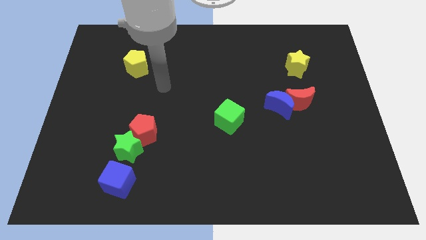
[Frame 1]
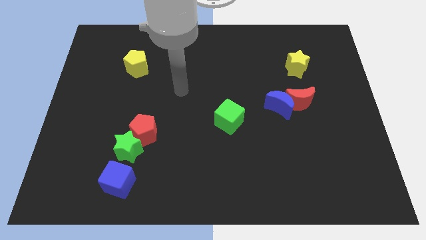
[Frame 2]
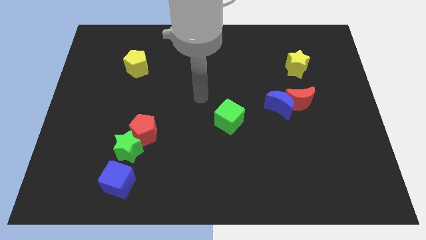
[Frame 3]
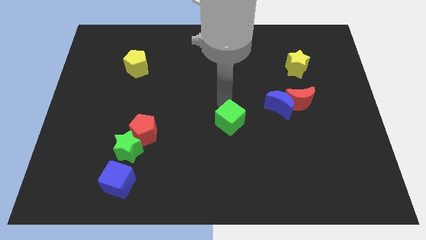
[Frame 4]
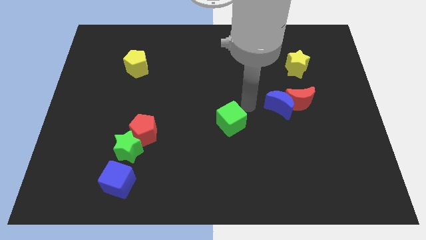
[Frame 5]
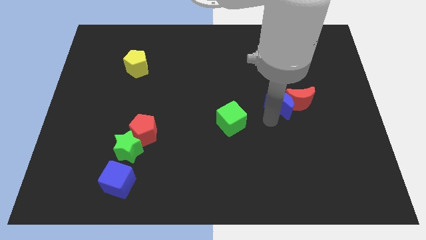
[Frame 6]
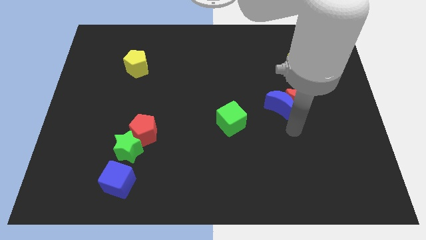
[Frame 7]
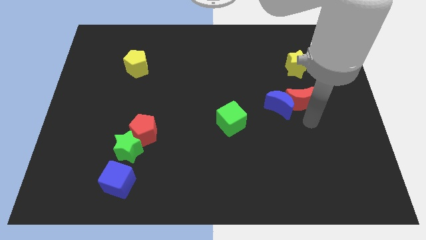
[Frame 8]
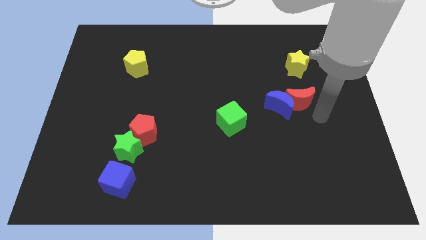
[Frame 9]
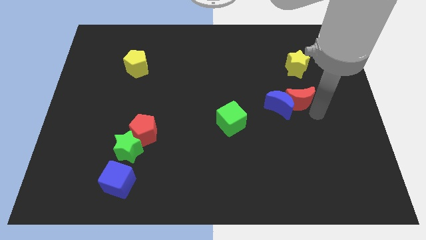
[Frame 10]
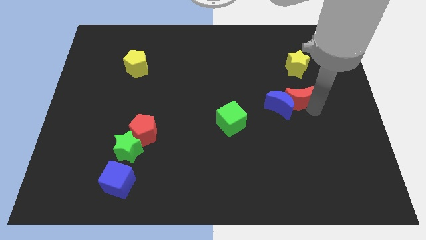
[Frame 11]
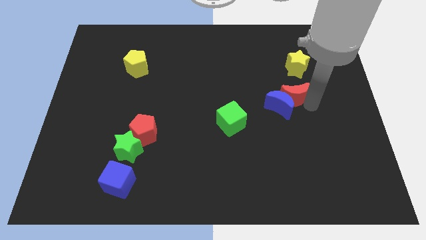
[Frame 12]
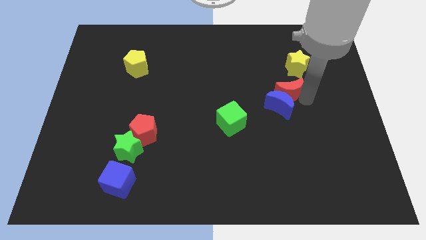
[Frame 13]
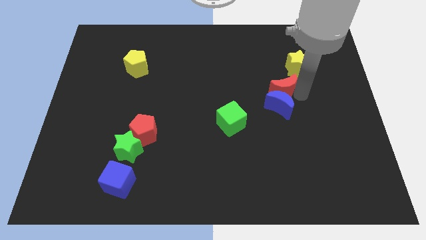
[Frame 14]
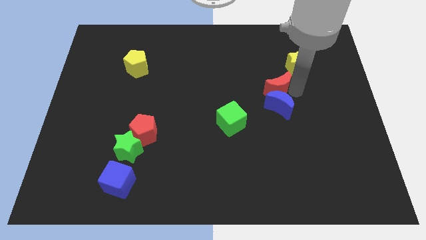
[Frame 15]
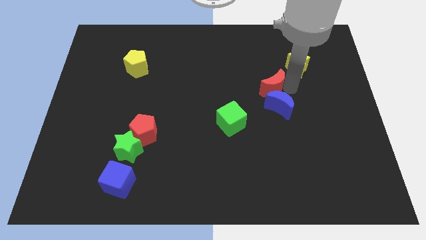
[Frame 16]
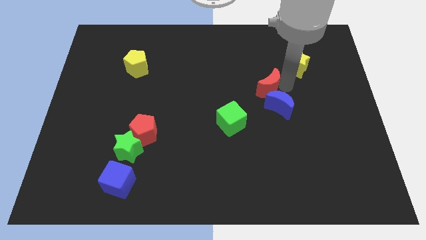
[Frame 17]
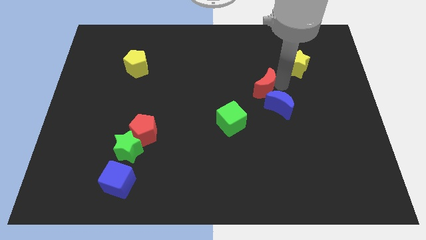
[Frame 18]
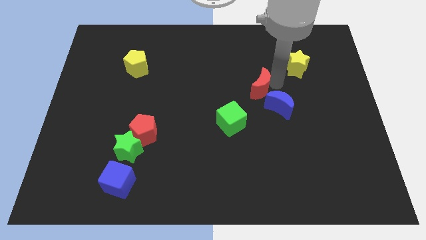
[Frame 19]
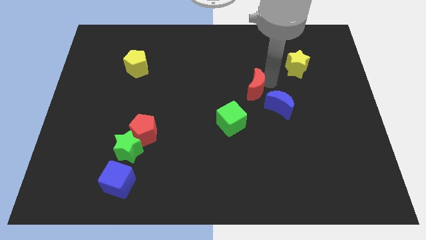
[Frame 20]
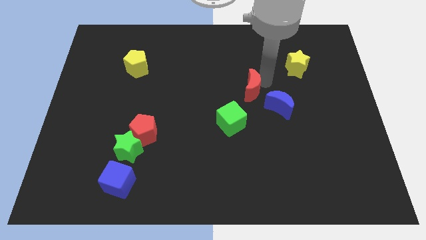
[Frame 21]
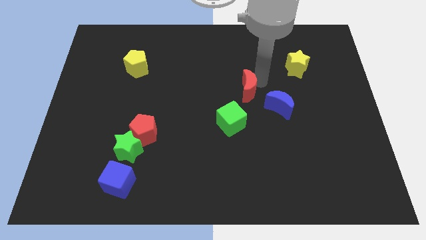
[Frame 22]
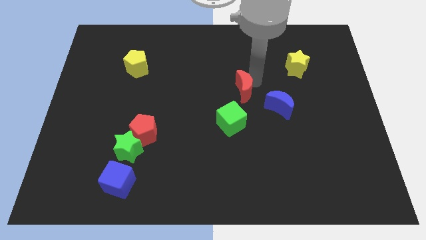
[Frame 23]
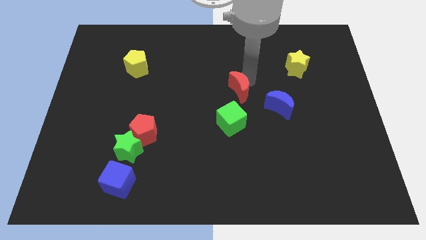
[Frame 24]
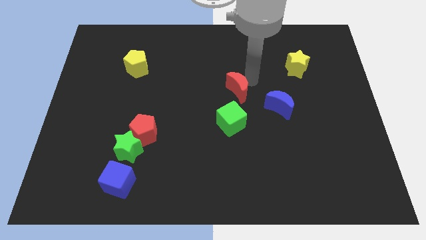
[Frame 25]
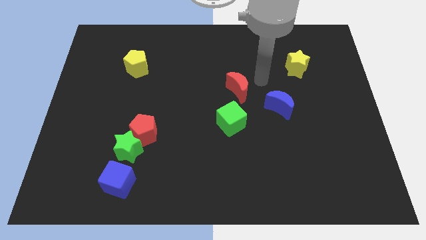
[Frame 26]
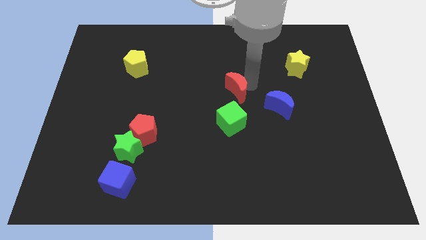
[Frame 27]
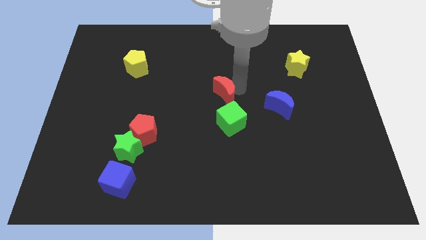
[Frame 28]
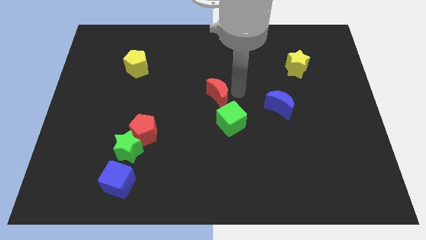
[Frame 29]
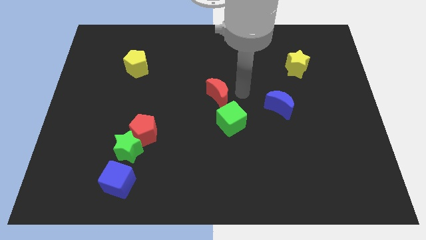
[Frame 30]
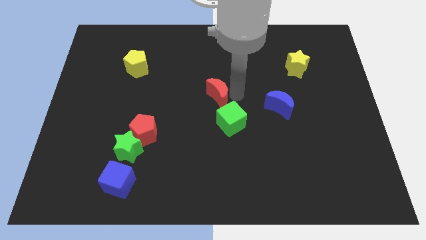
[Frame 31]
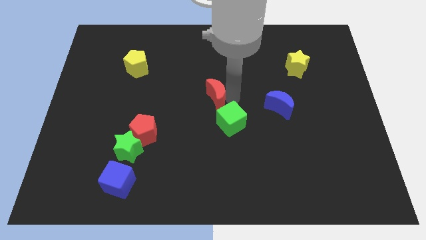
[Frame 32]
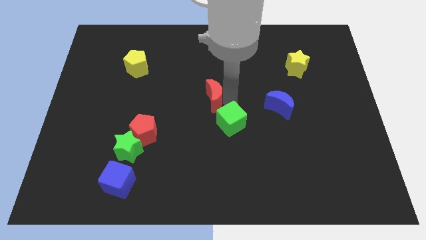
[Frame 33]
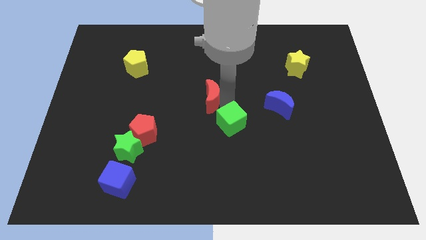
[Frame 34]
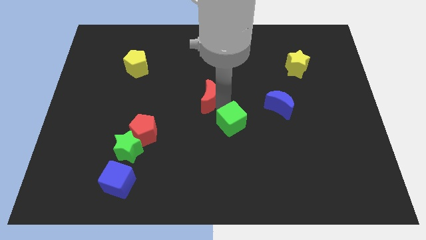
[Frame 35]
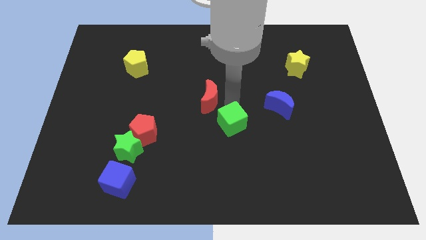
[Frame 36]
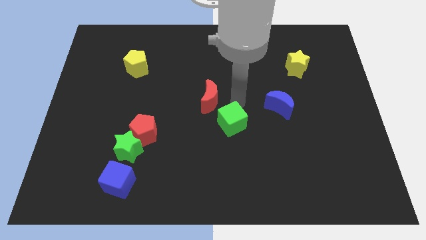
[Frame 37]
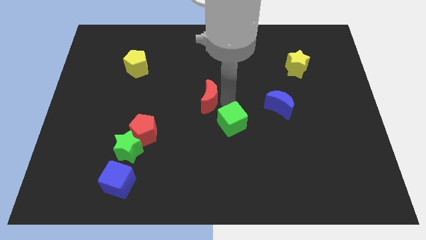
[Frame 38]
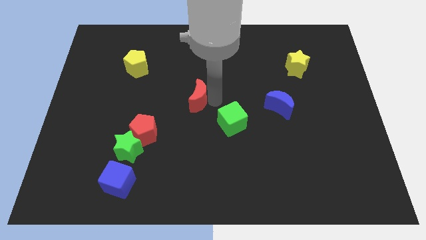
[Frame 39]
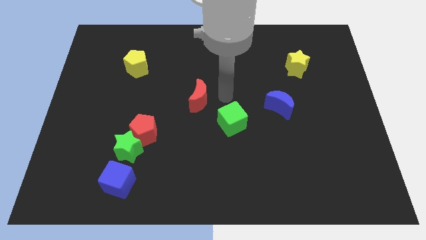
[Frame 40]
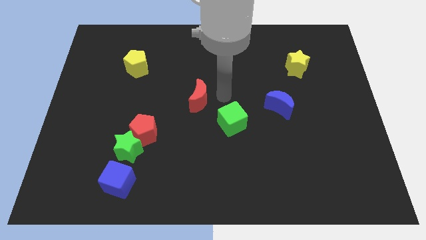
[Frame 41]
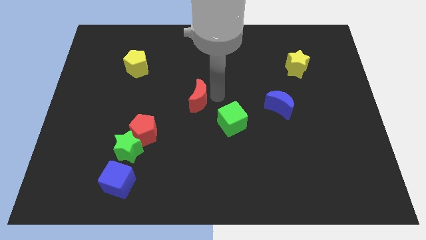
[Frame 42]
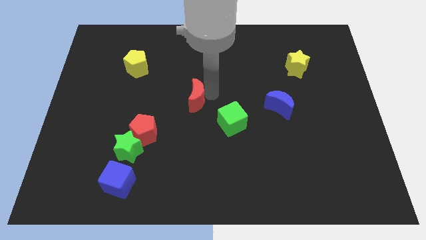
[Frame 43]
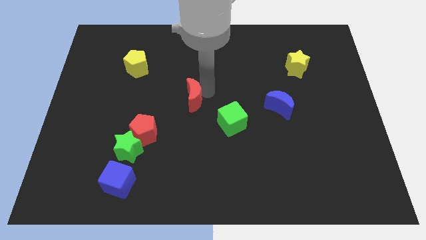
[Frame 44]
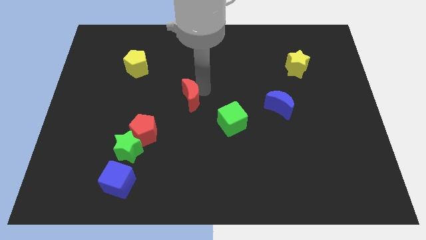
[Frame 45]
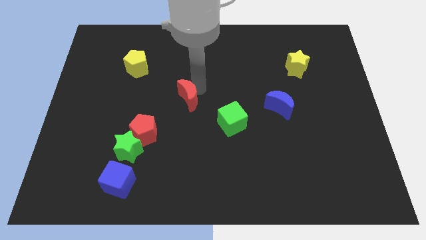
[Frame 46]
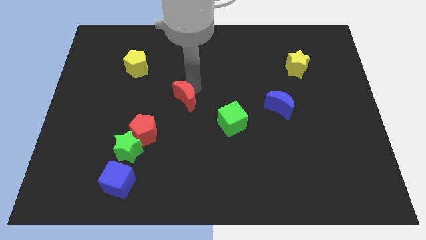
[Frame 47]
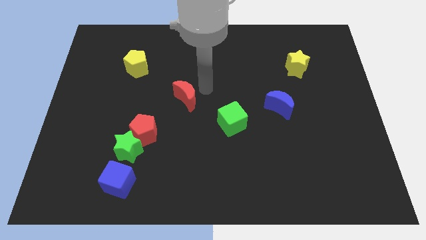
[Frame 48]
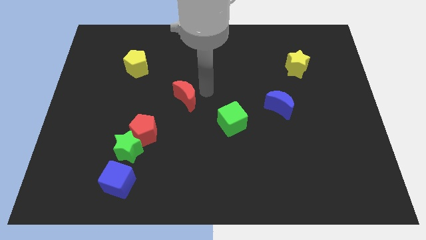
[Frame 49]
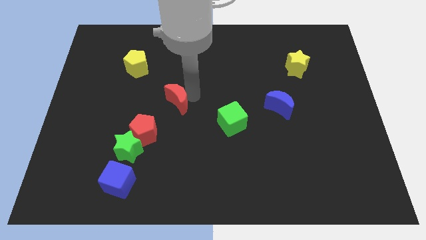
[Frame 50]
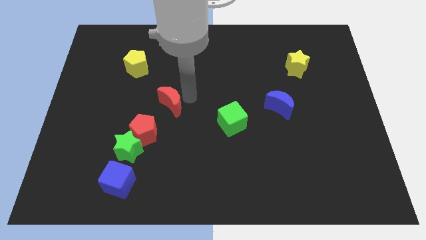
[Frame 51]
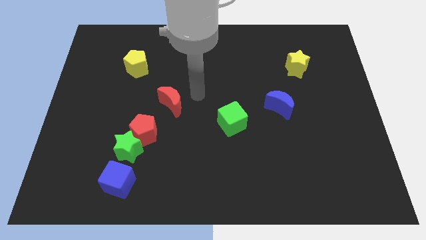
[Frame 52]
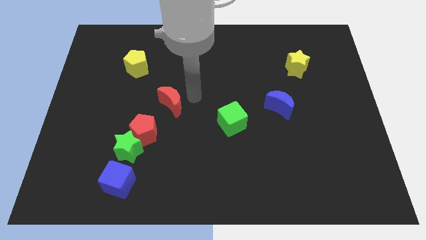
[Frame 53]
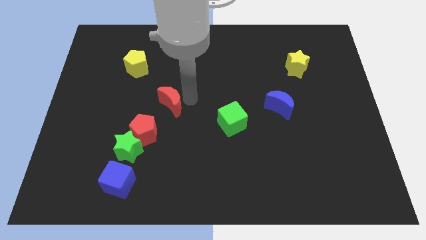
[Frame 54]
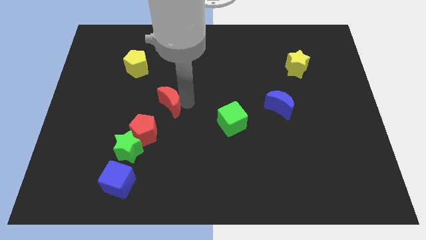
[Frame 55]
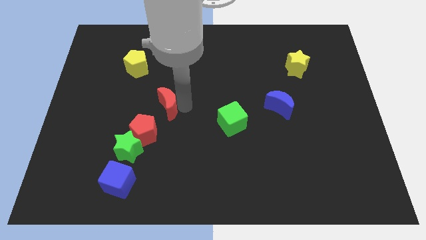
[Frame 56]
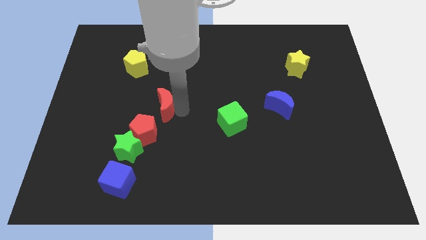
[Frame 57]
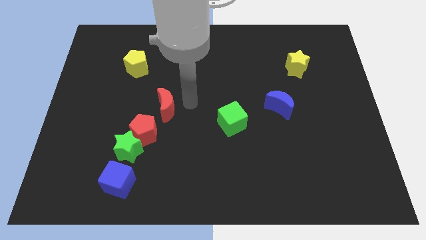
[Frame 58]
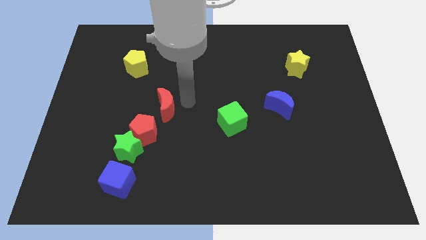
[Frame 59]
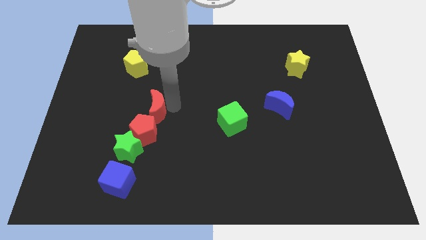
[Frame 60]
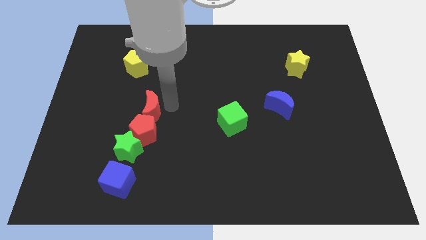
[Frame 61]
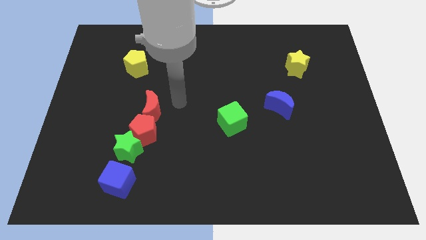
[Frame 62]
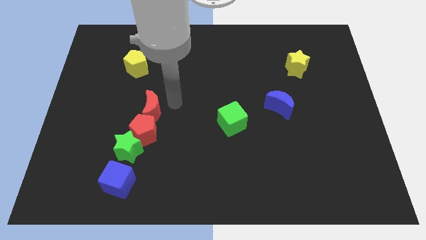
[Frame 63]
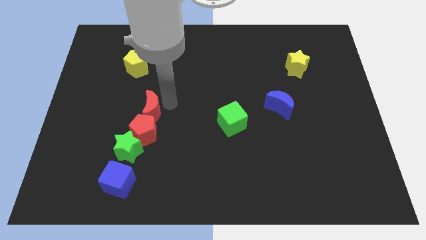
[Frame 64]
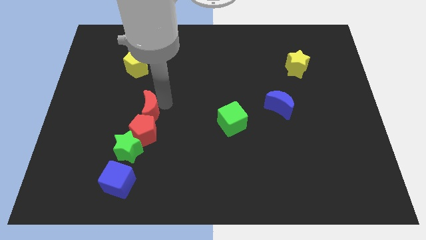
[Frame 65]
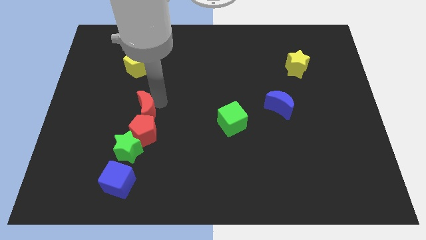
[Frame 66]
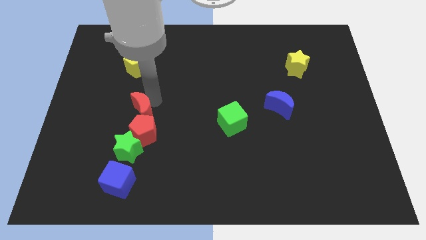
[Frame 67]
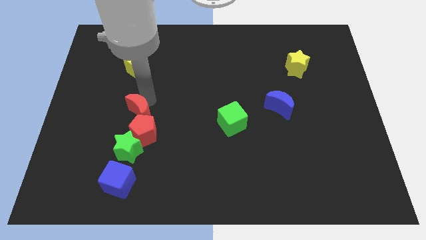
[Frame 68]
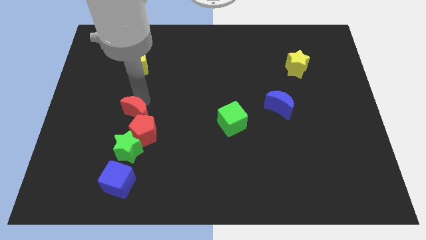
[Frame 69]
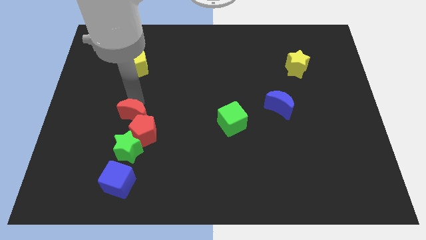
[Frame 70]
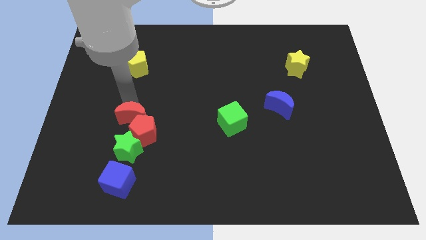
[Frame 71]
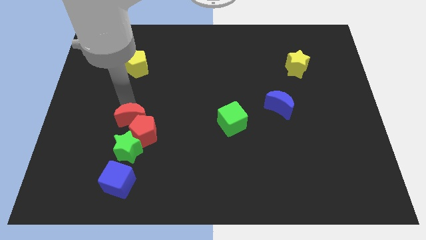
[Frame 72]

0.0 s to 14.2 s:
put the red moon to the top of the blue cube
